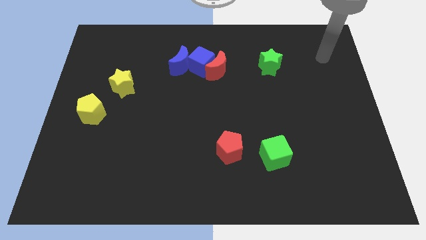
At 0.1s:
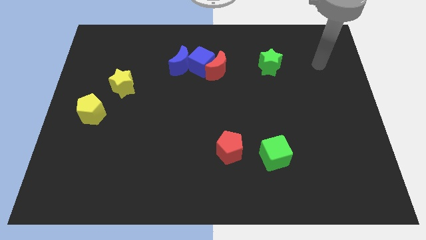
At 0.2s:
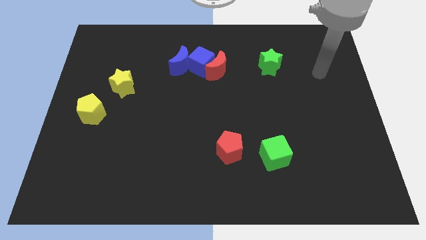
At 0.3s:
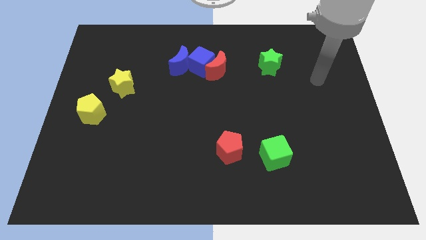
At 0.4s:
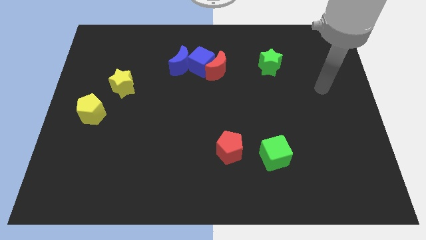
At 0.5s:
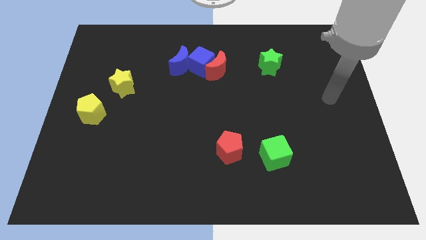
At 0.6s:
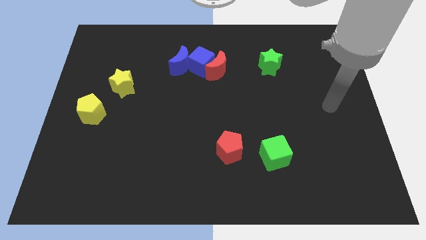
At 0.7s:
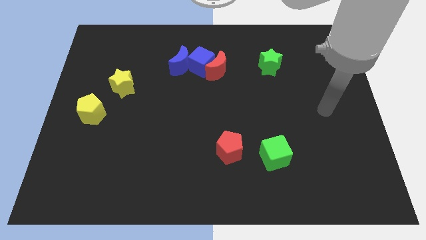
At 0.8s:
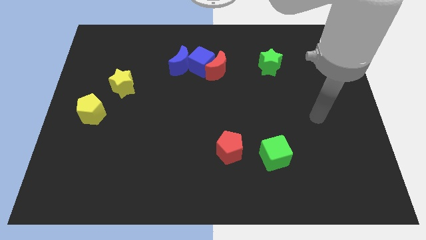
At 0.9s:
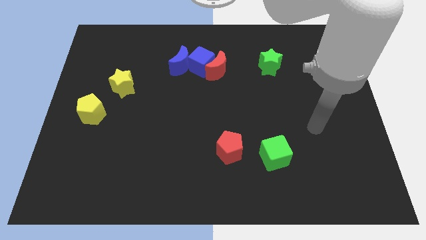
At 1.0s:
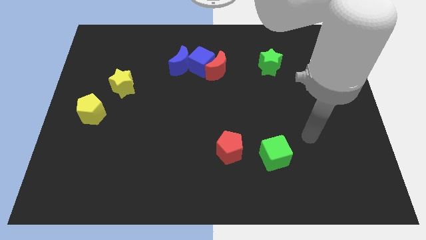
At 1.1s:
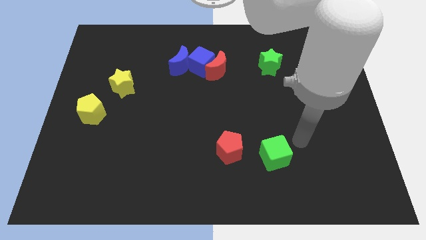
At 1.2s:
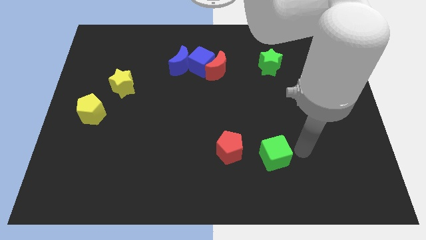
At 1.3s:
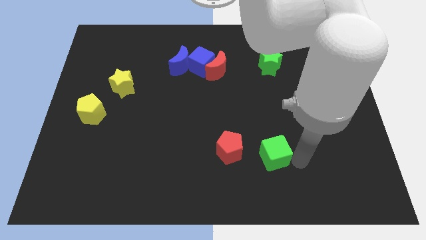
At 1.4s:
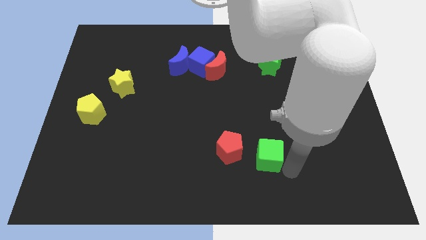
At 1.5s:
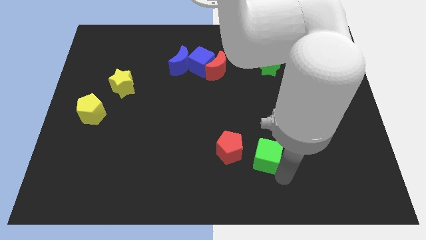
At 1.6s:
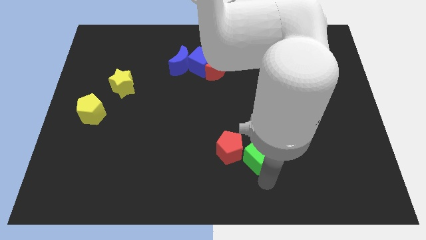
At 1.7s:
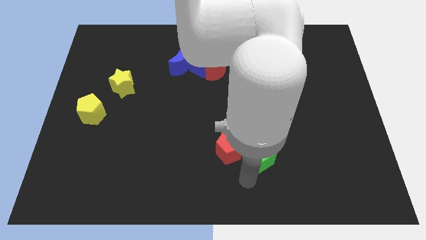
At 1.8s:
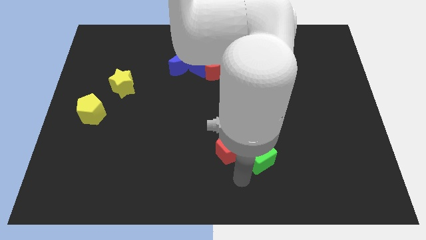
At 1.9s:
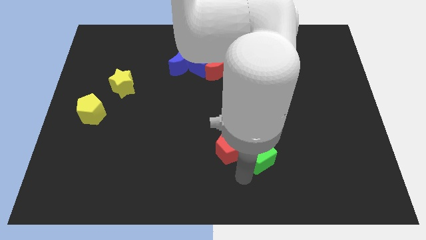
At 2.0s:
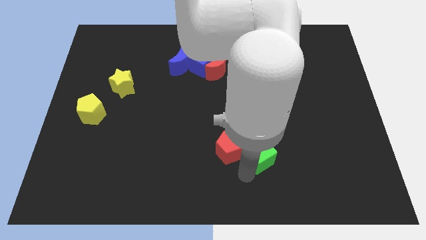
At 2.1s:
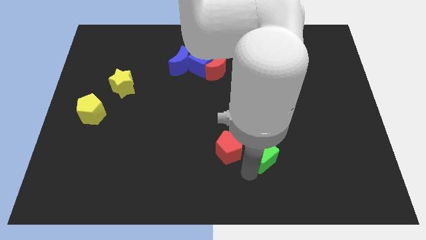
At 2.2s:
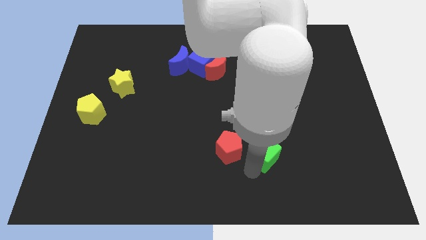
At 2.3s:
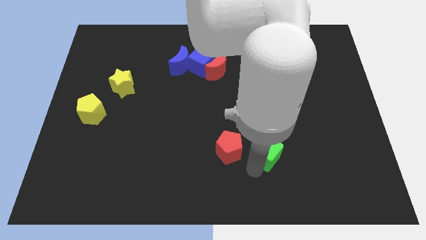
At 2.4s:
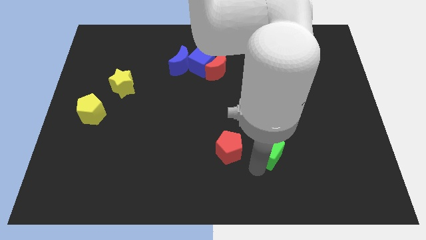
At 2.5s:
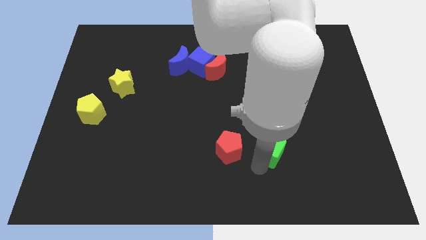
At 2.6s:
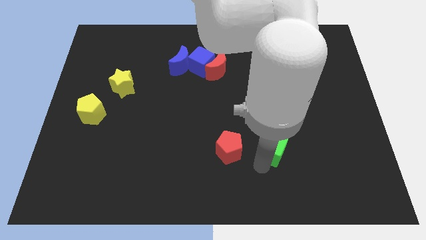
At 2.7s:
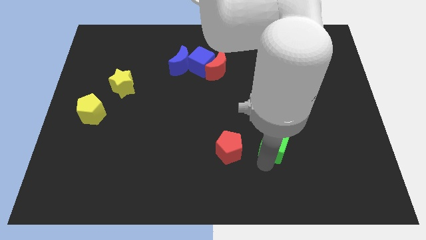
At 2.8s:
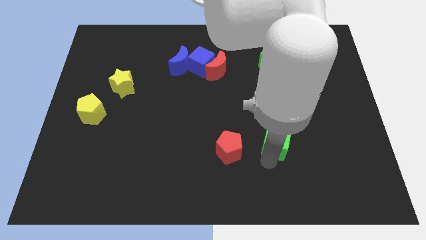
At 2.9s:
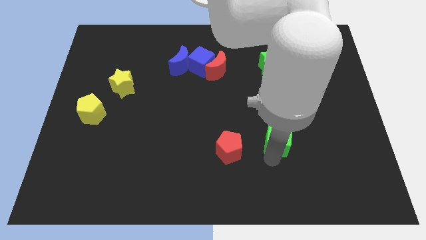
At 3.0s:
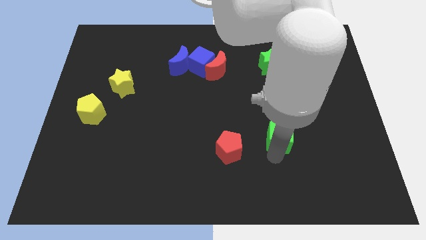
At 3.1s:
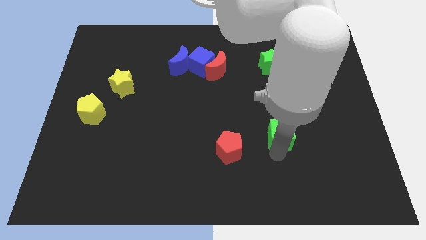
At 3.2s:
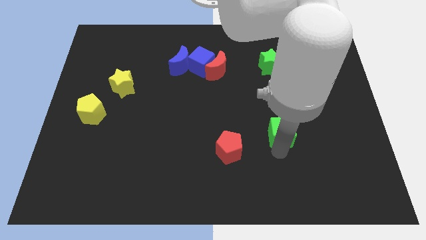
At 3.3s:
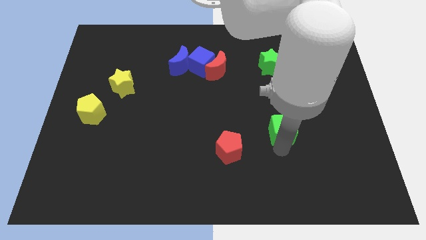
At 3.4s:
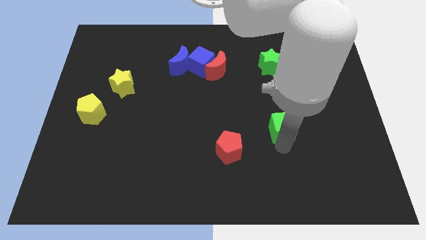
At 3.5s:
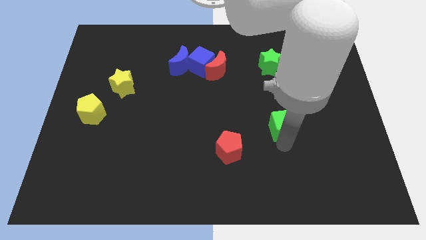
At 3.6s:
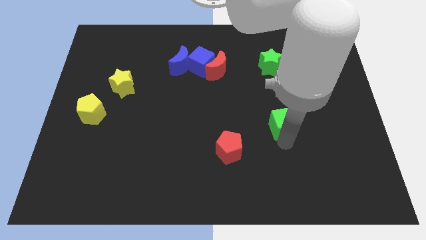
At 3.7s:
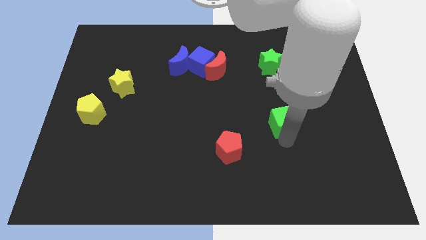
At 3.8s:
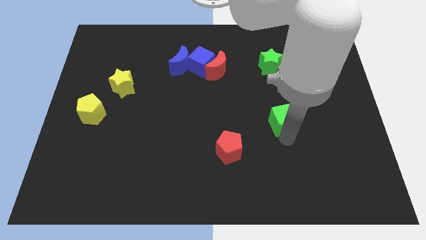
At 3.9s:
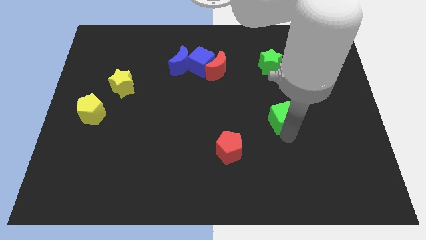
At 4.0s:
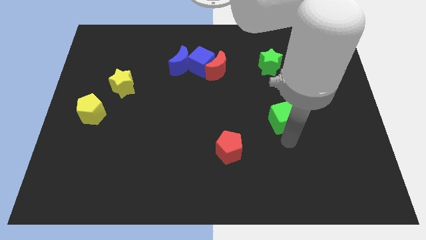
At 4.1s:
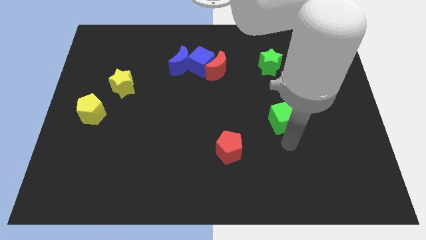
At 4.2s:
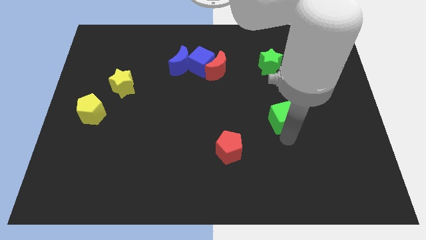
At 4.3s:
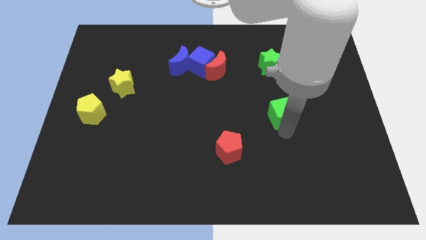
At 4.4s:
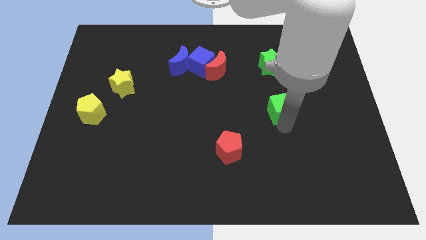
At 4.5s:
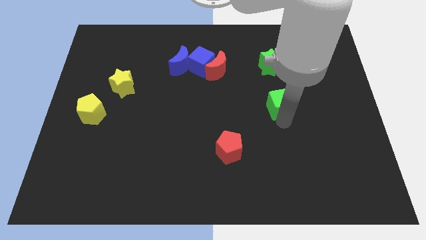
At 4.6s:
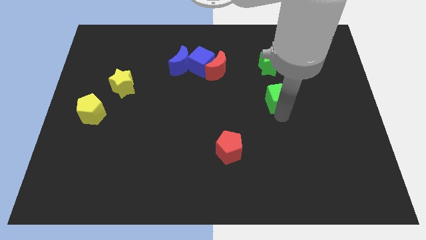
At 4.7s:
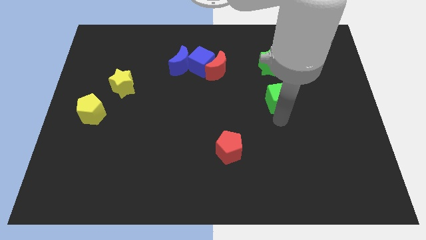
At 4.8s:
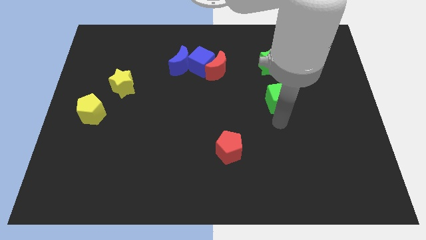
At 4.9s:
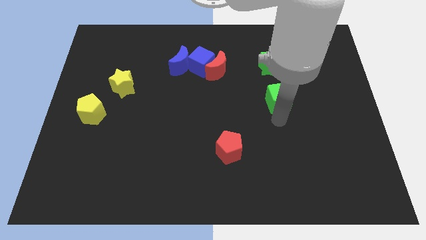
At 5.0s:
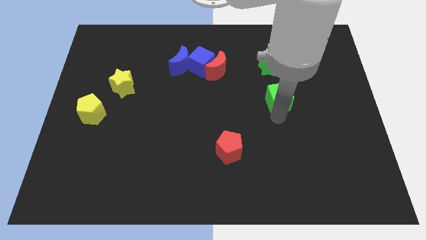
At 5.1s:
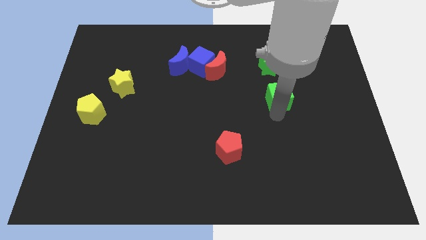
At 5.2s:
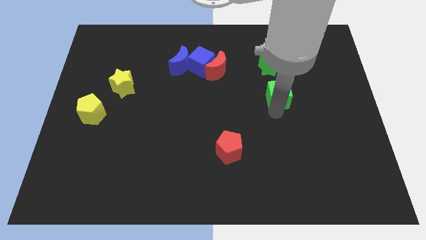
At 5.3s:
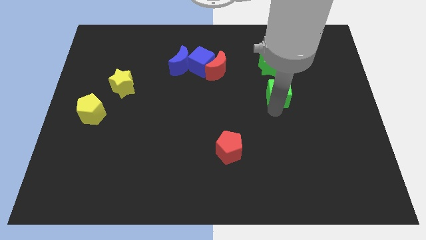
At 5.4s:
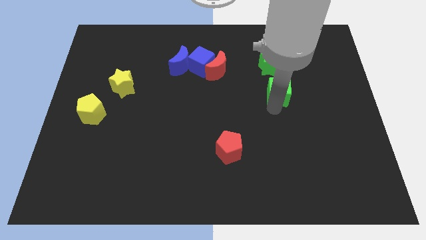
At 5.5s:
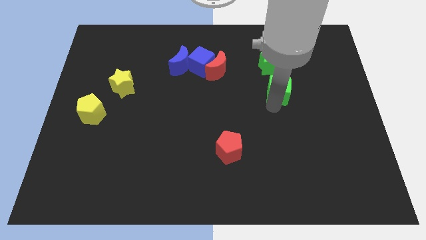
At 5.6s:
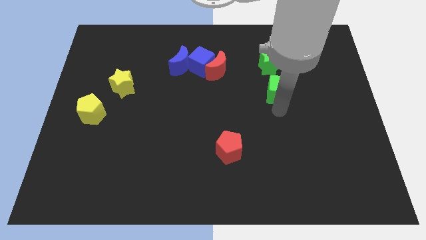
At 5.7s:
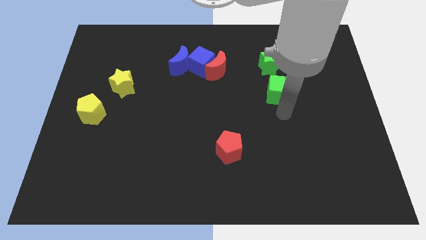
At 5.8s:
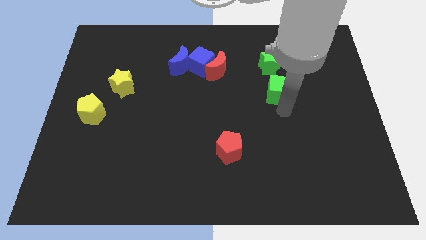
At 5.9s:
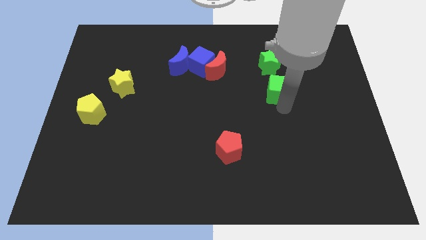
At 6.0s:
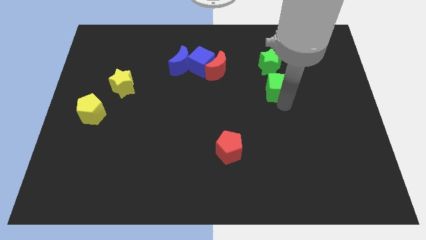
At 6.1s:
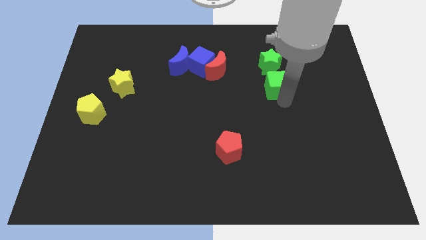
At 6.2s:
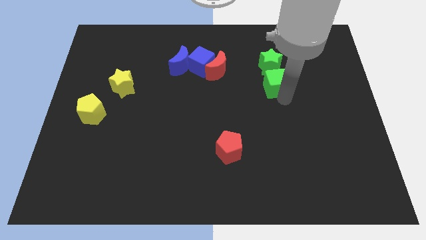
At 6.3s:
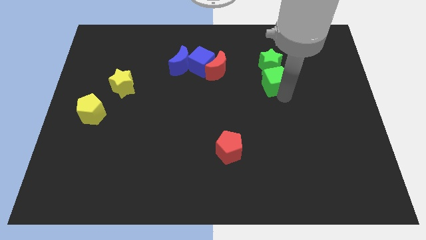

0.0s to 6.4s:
move the green cube next to the green star
